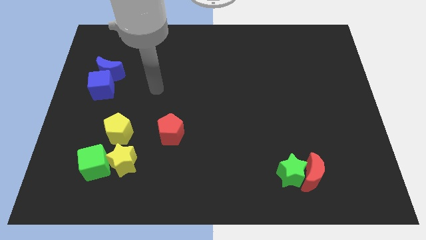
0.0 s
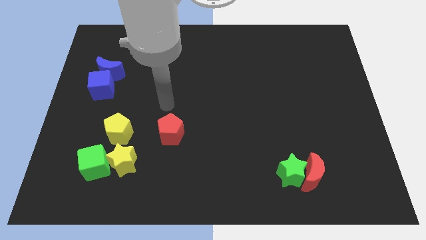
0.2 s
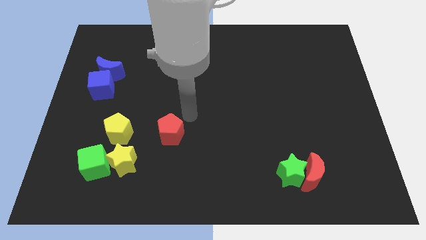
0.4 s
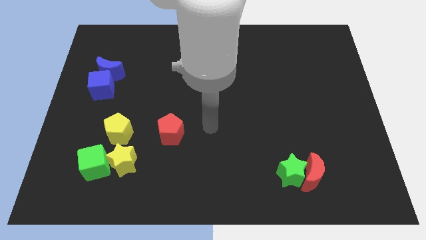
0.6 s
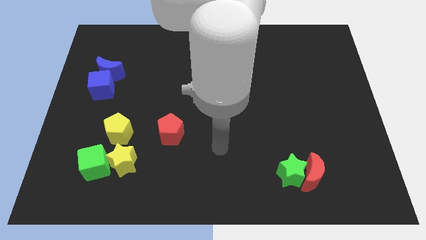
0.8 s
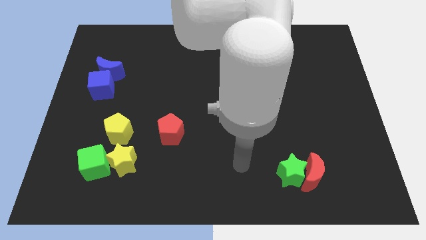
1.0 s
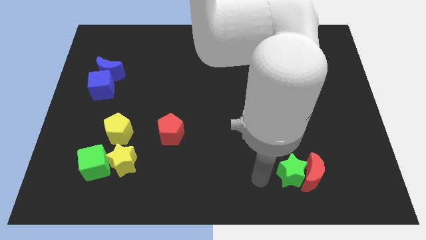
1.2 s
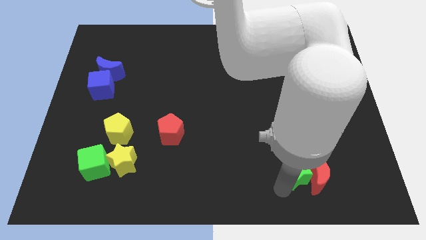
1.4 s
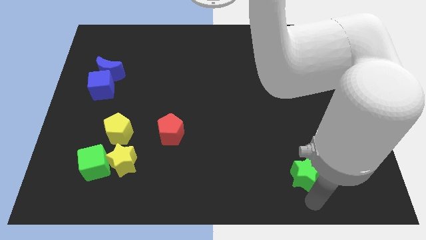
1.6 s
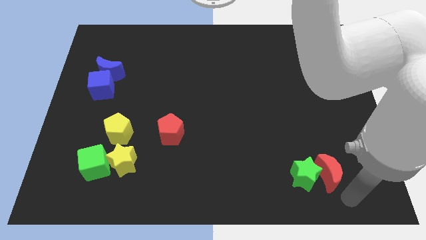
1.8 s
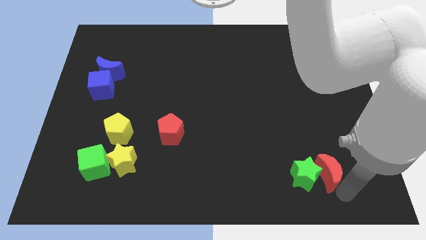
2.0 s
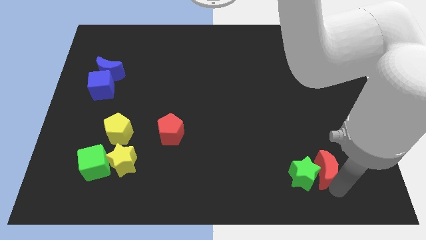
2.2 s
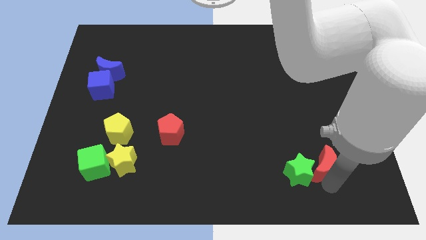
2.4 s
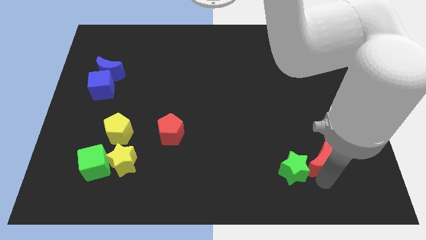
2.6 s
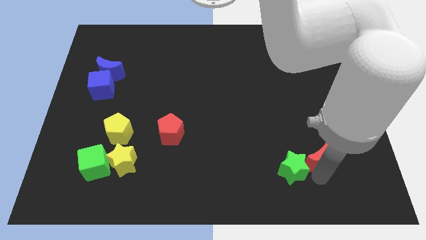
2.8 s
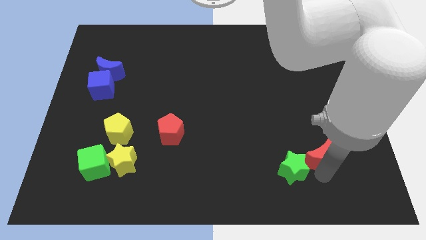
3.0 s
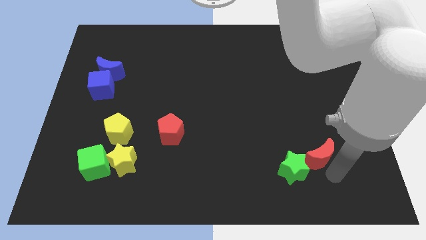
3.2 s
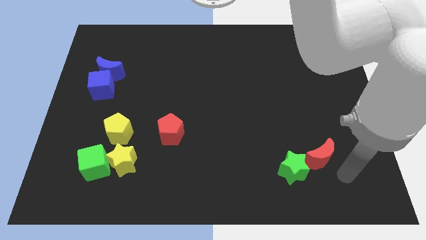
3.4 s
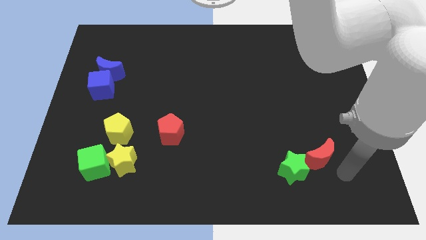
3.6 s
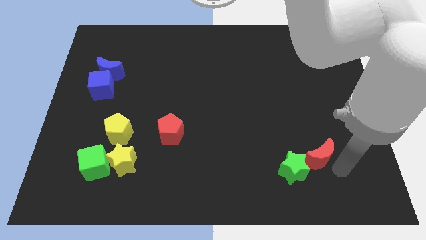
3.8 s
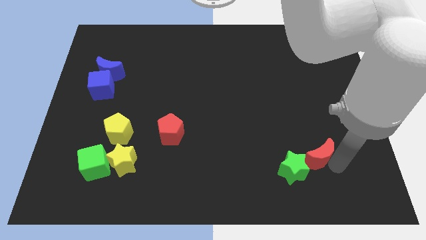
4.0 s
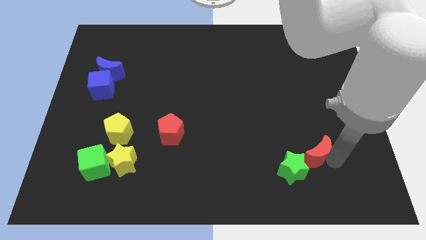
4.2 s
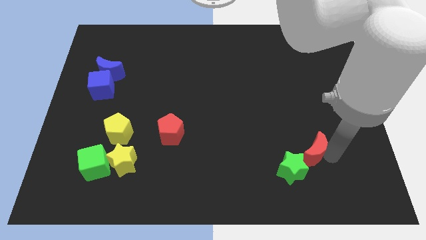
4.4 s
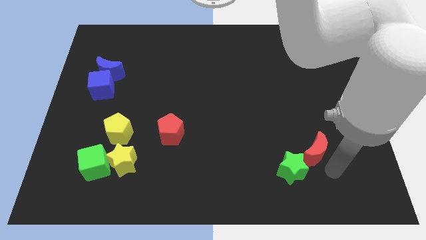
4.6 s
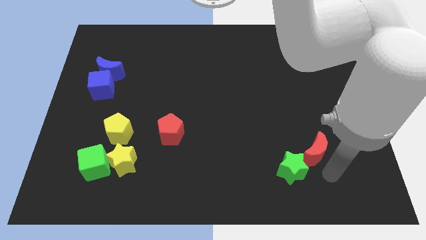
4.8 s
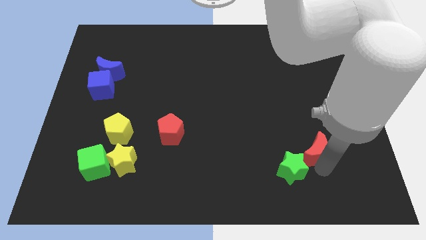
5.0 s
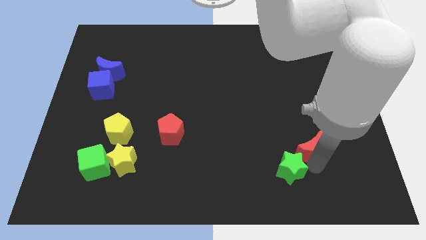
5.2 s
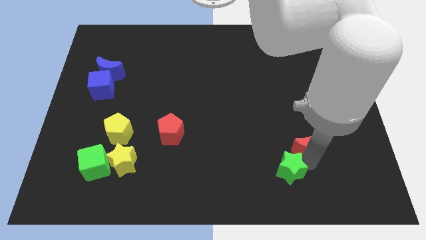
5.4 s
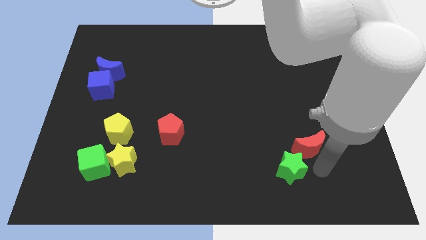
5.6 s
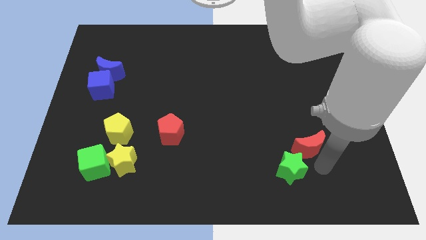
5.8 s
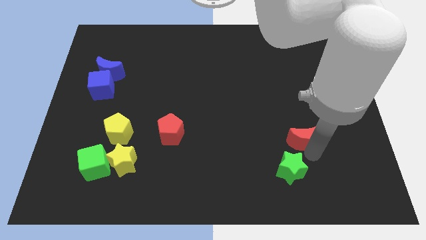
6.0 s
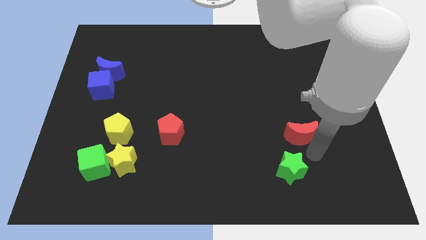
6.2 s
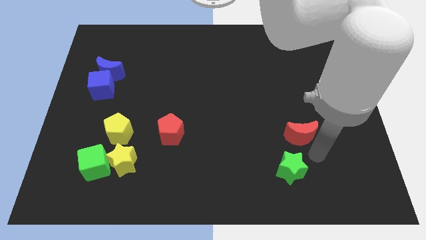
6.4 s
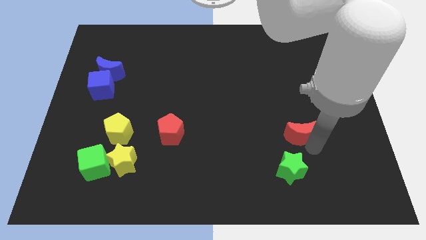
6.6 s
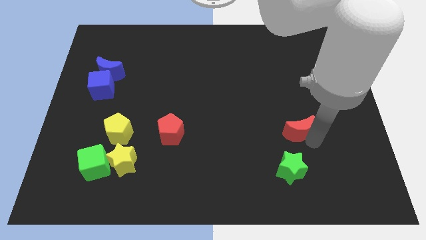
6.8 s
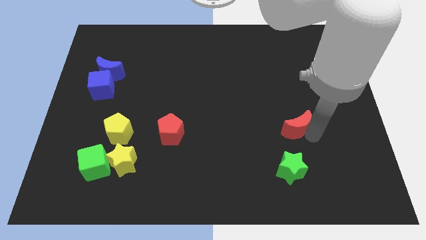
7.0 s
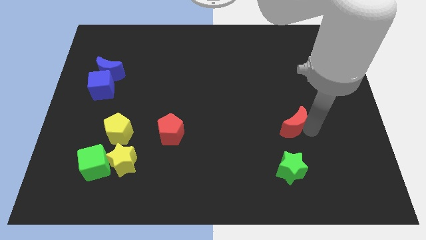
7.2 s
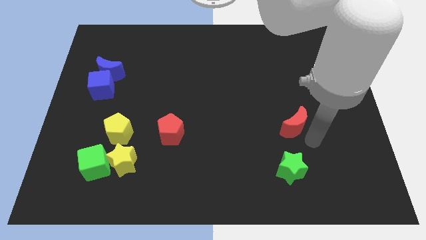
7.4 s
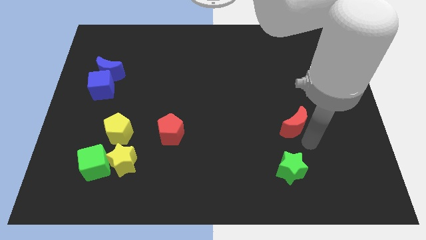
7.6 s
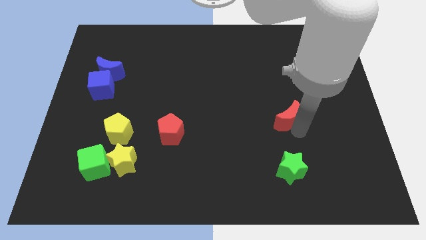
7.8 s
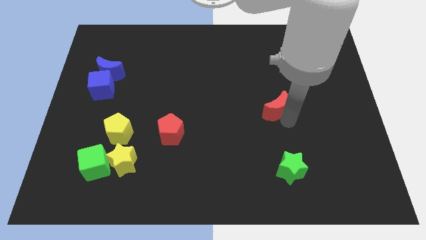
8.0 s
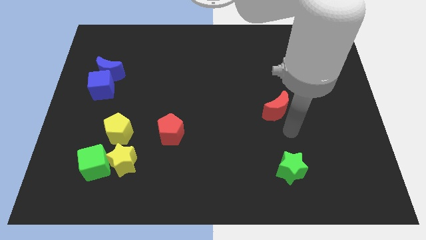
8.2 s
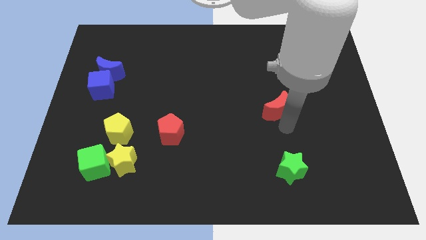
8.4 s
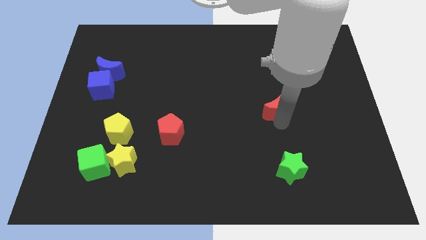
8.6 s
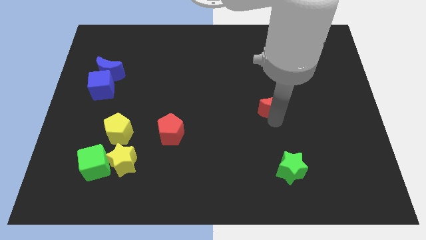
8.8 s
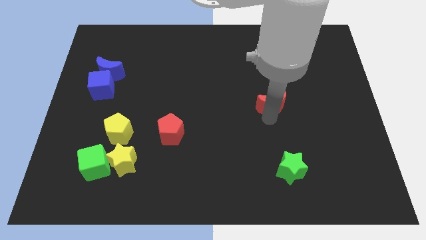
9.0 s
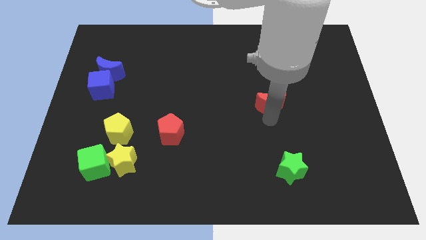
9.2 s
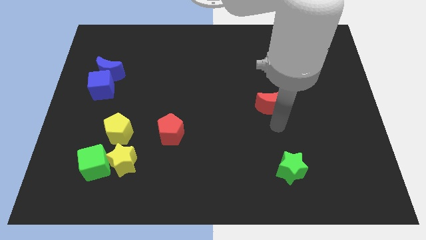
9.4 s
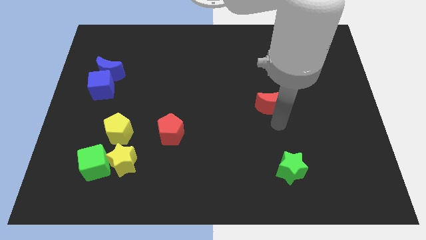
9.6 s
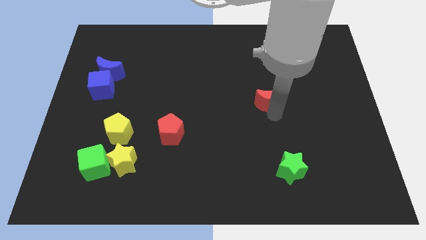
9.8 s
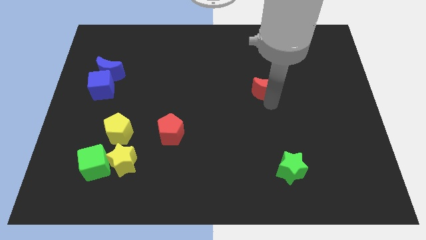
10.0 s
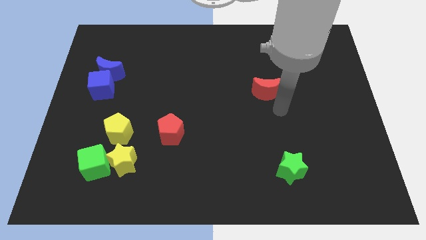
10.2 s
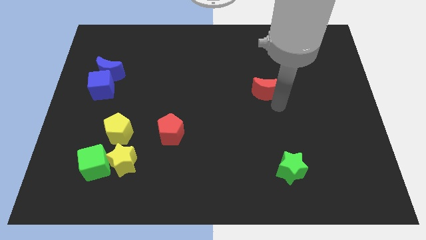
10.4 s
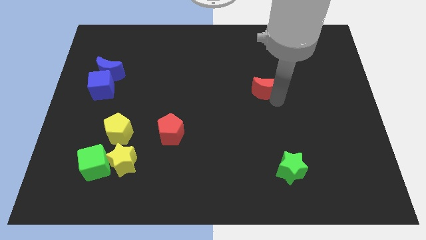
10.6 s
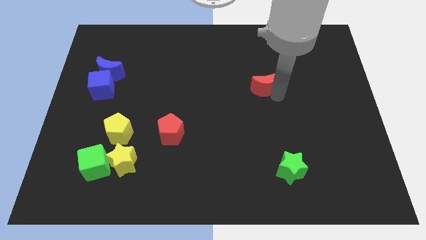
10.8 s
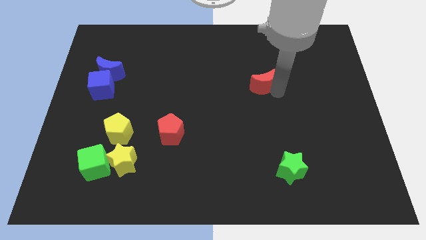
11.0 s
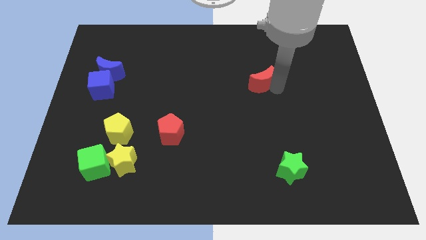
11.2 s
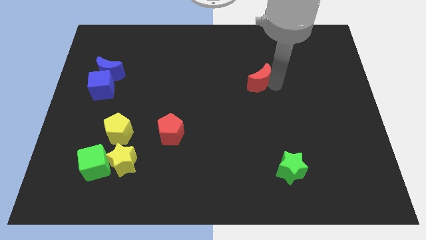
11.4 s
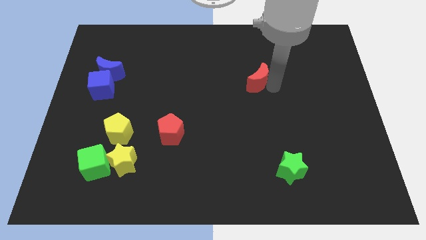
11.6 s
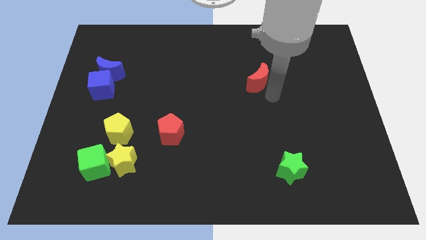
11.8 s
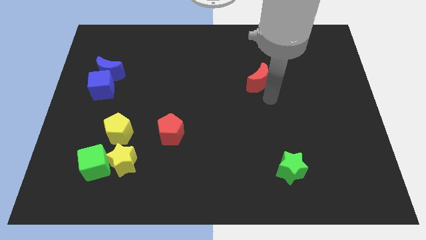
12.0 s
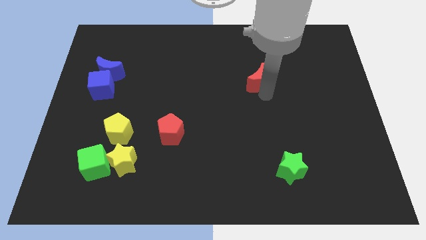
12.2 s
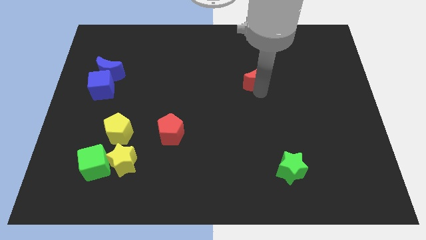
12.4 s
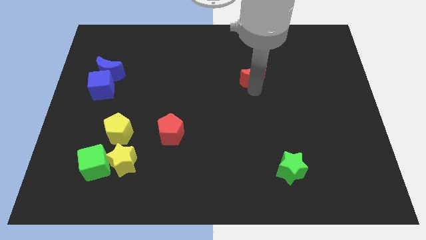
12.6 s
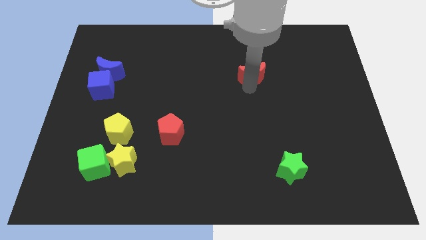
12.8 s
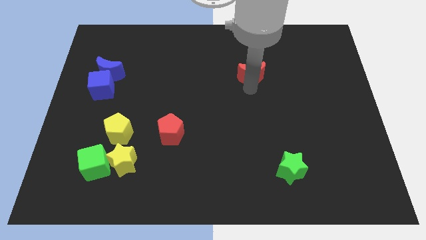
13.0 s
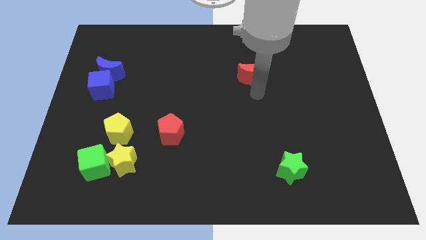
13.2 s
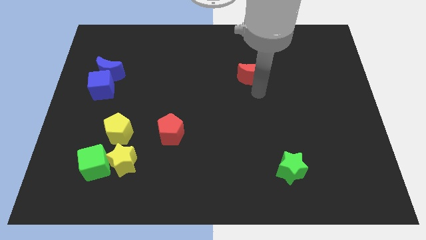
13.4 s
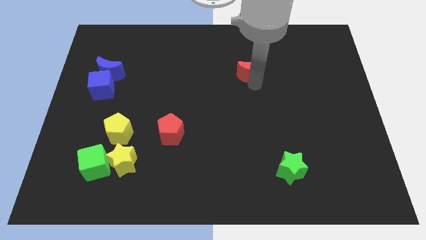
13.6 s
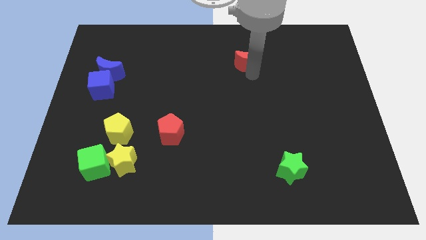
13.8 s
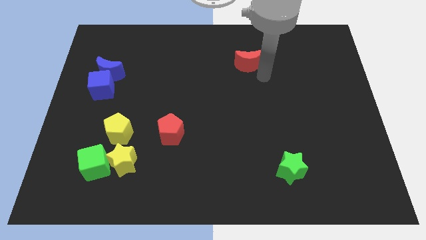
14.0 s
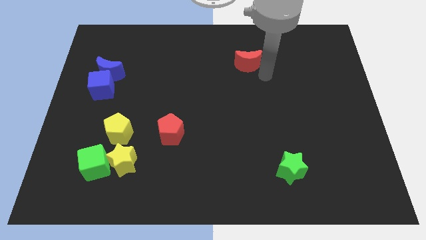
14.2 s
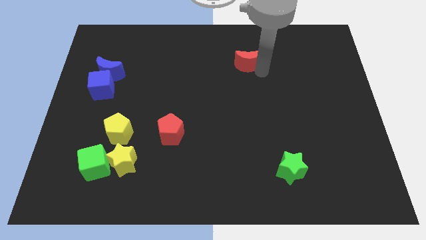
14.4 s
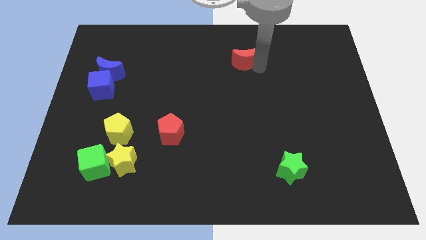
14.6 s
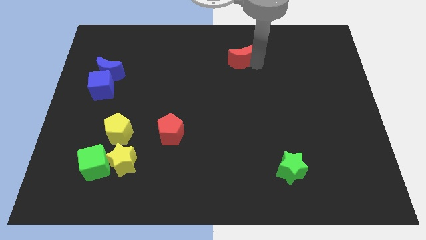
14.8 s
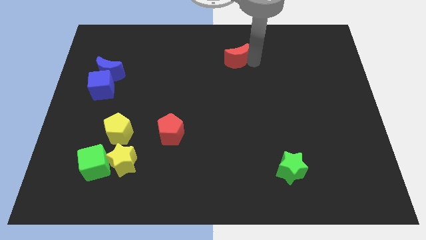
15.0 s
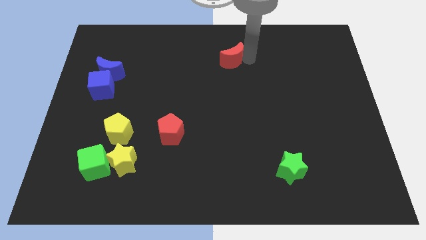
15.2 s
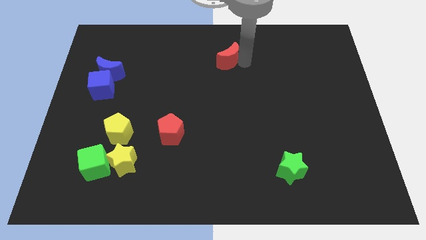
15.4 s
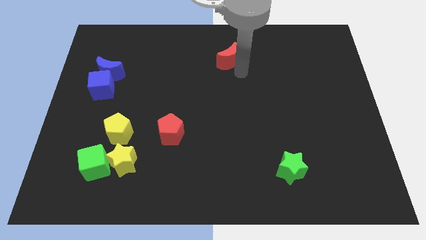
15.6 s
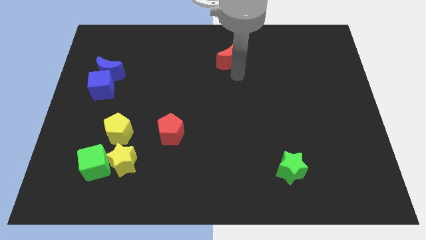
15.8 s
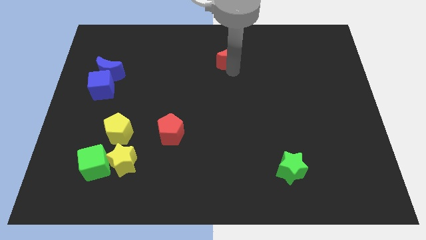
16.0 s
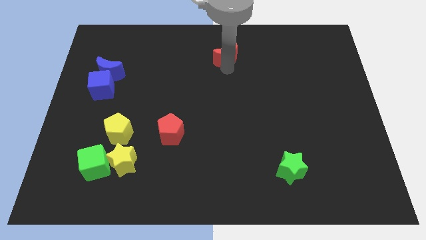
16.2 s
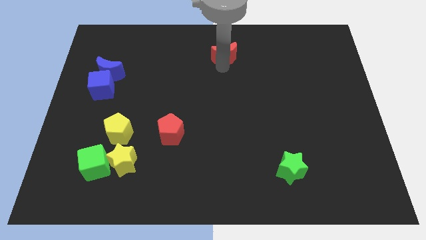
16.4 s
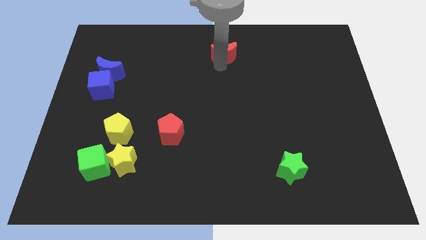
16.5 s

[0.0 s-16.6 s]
push the red moon to the top
